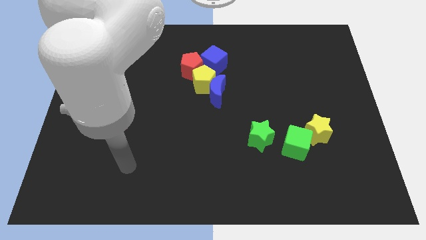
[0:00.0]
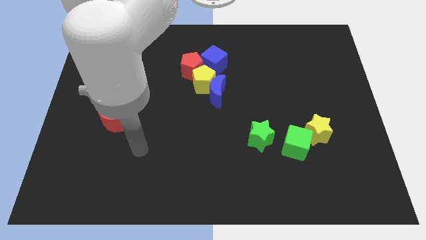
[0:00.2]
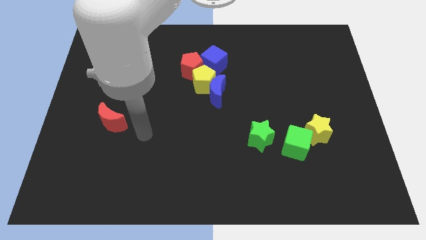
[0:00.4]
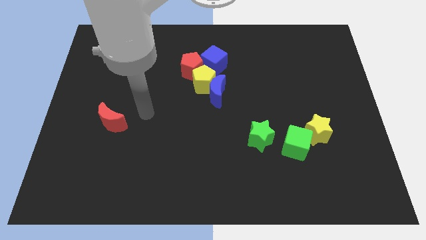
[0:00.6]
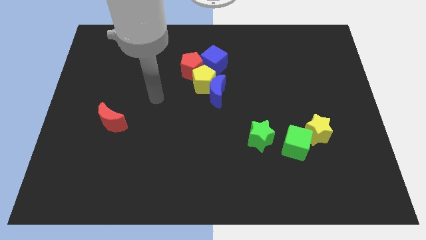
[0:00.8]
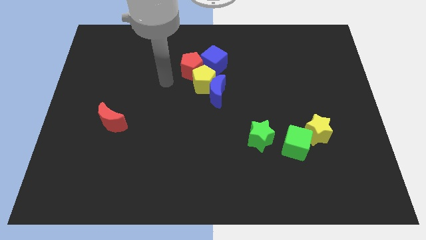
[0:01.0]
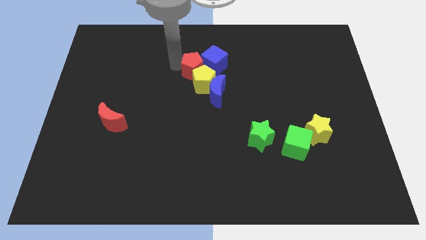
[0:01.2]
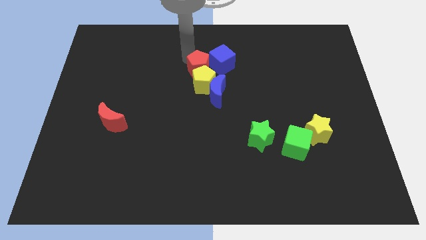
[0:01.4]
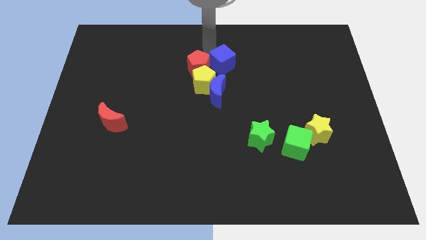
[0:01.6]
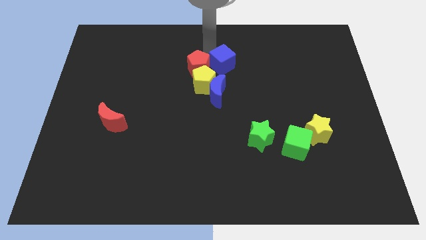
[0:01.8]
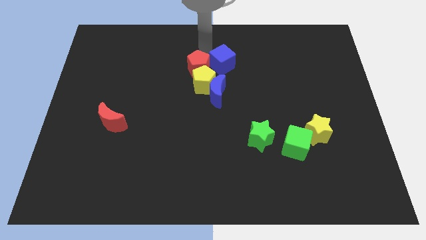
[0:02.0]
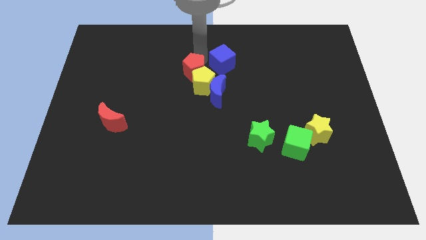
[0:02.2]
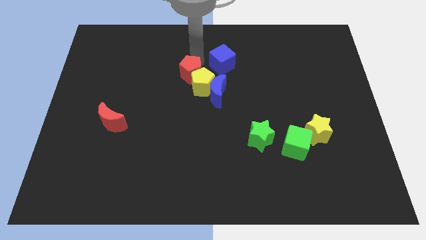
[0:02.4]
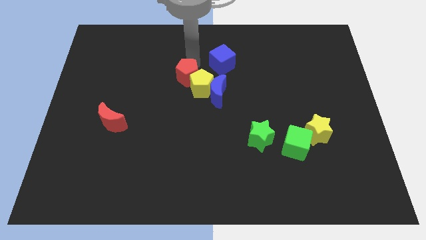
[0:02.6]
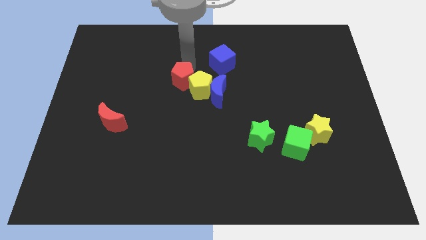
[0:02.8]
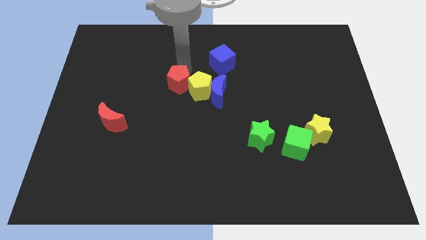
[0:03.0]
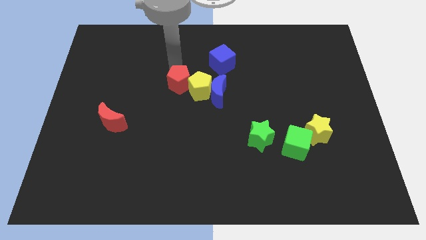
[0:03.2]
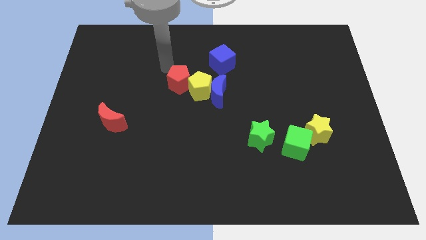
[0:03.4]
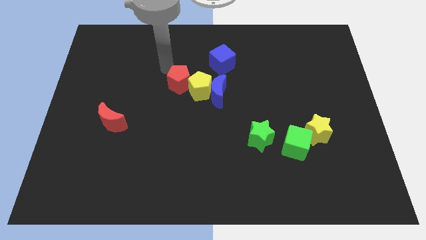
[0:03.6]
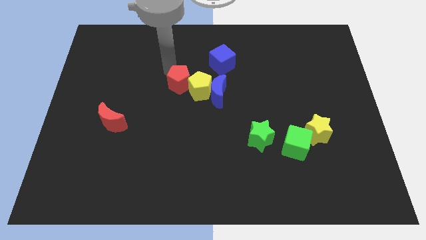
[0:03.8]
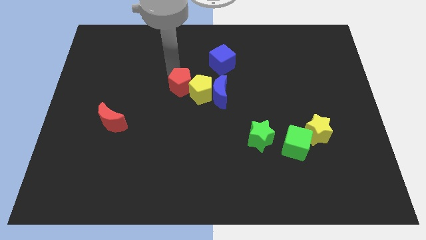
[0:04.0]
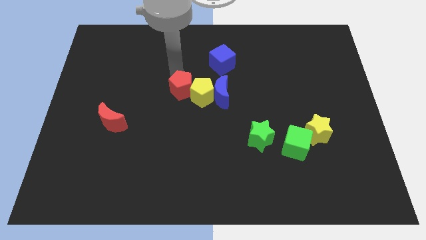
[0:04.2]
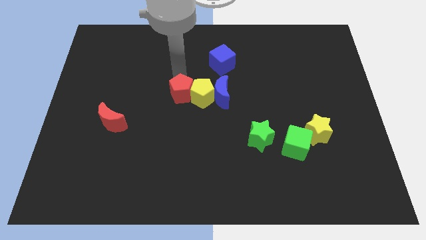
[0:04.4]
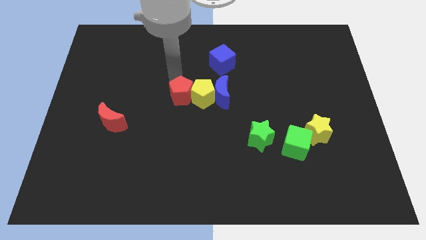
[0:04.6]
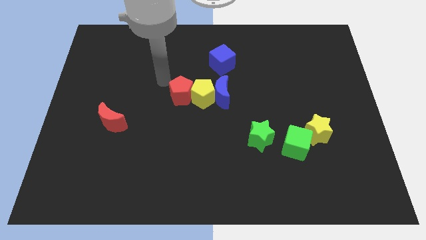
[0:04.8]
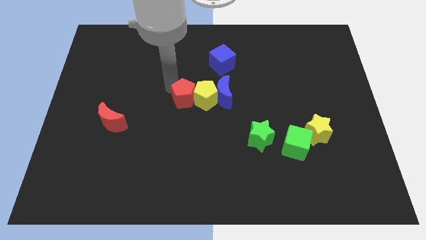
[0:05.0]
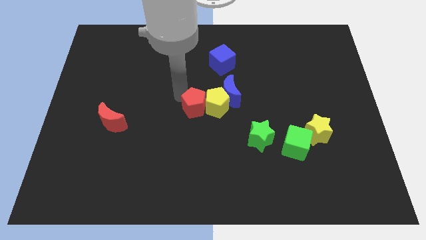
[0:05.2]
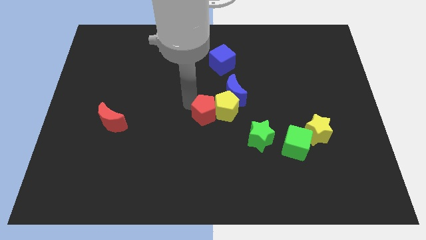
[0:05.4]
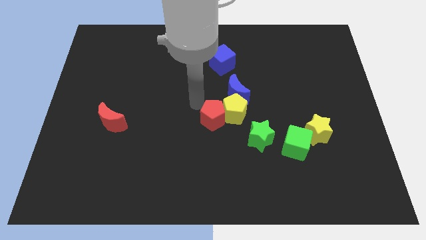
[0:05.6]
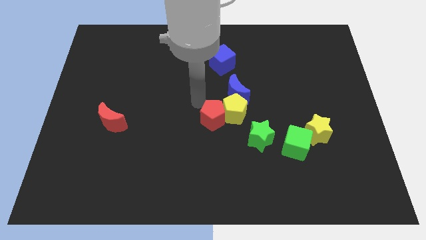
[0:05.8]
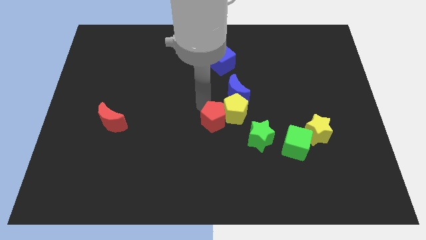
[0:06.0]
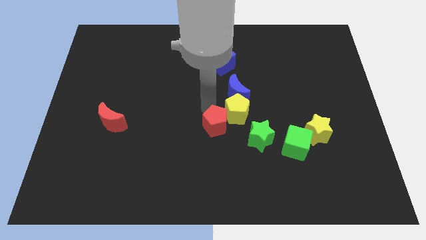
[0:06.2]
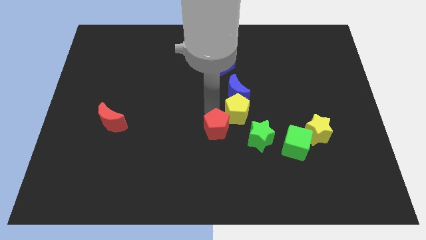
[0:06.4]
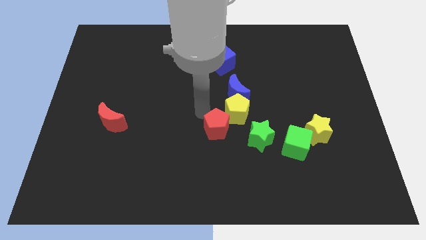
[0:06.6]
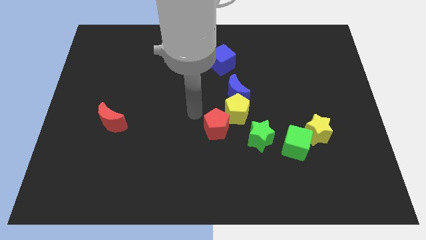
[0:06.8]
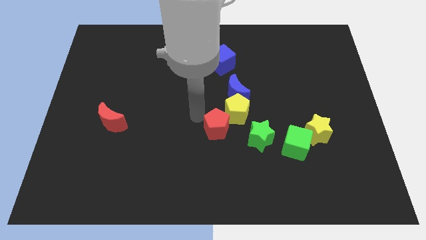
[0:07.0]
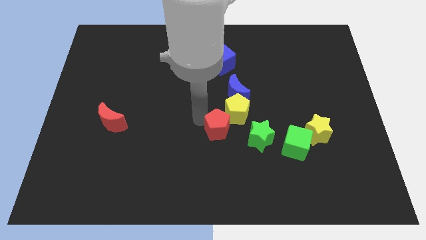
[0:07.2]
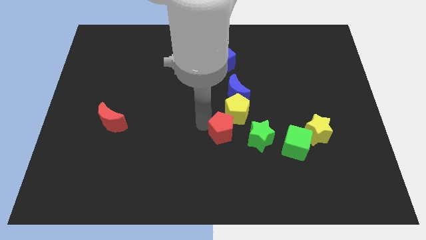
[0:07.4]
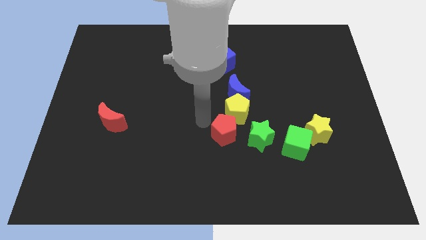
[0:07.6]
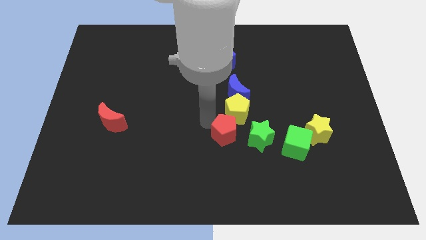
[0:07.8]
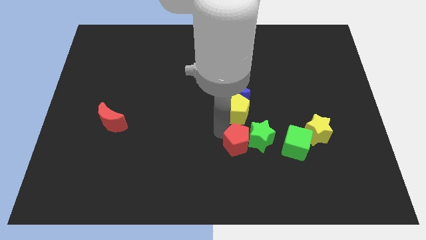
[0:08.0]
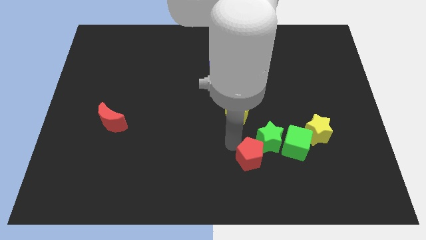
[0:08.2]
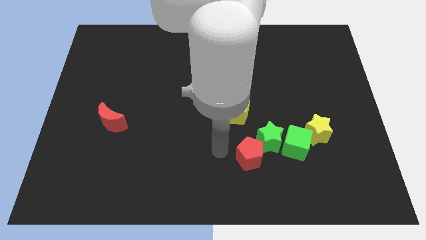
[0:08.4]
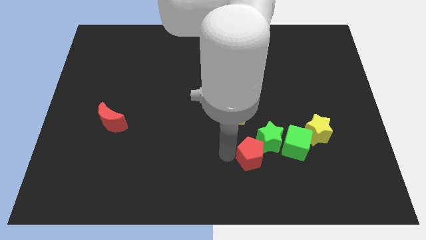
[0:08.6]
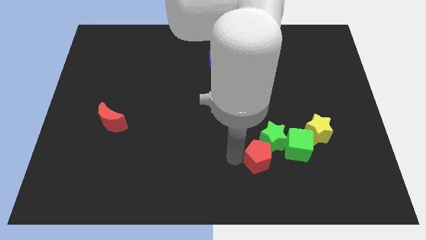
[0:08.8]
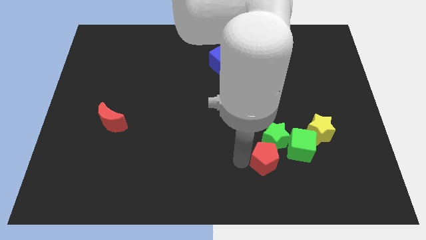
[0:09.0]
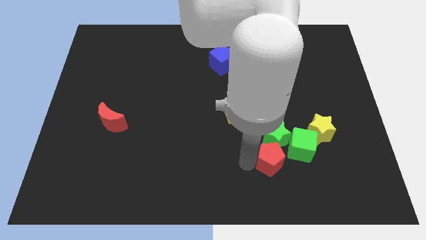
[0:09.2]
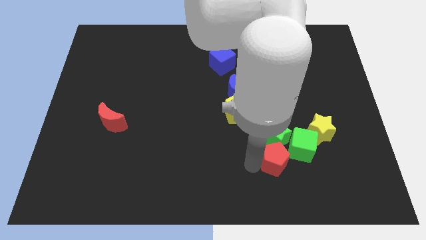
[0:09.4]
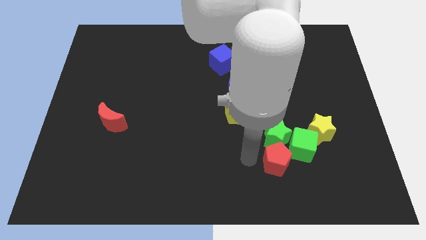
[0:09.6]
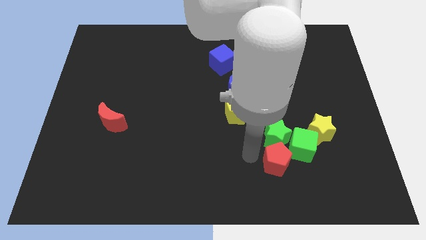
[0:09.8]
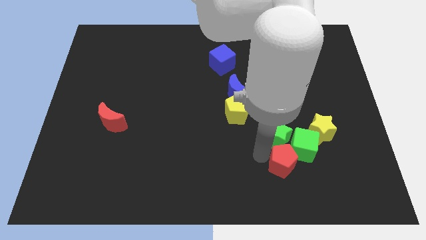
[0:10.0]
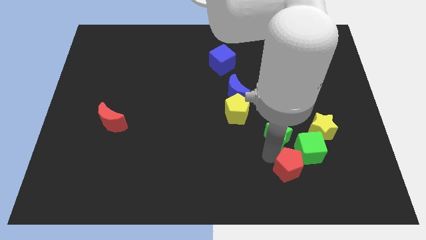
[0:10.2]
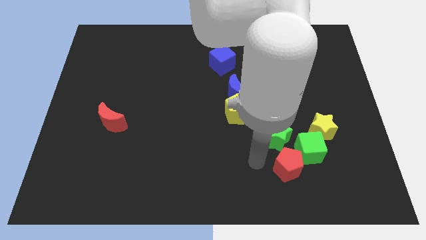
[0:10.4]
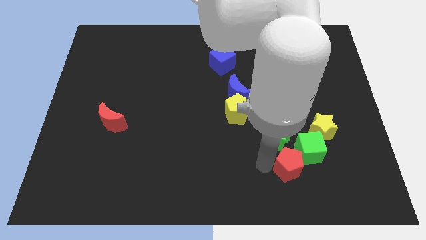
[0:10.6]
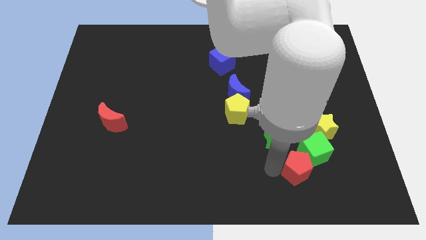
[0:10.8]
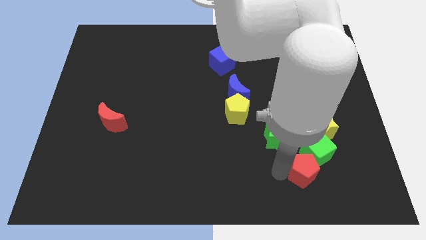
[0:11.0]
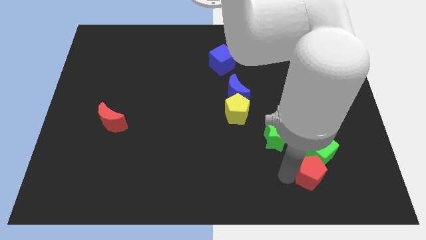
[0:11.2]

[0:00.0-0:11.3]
put the red pentagon to the bottom of the yellow star
